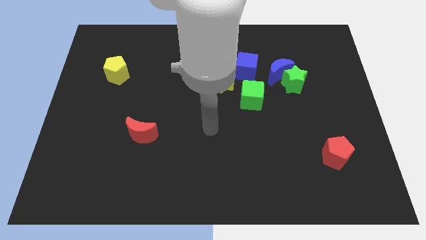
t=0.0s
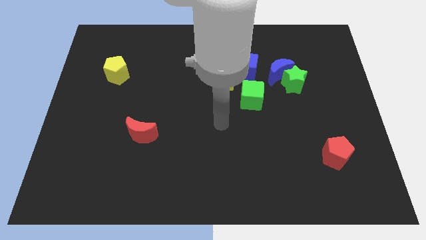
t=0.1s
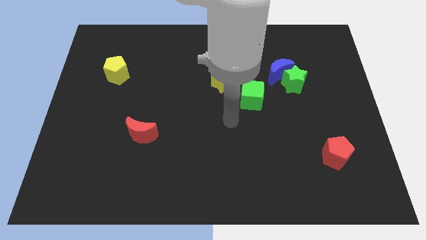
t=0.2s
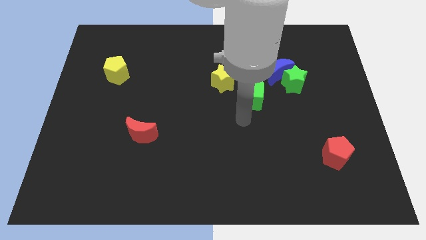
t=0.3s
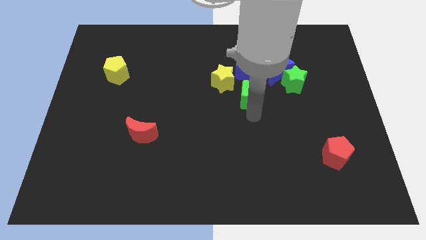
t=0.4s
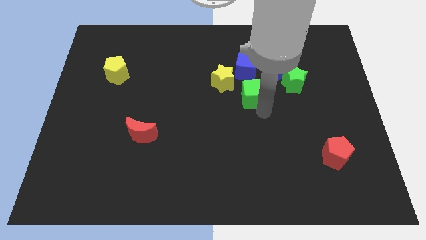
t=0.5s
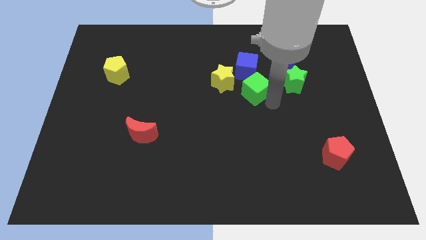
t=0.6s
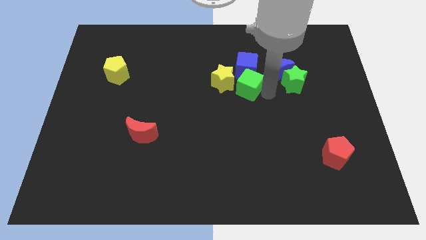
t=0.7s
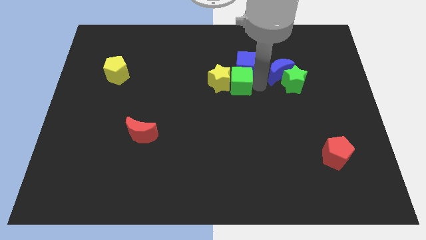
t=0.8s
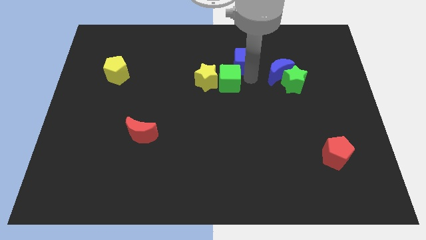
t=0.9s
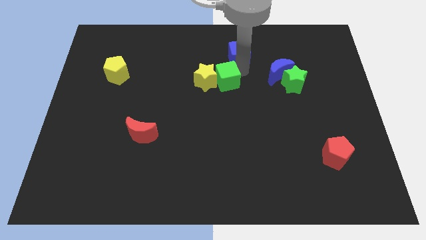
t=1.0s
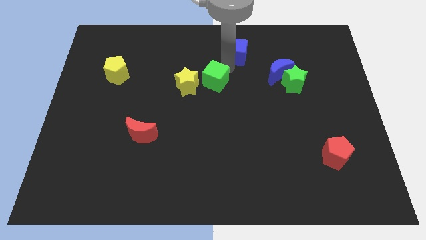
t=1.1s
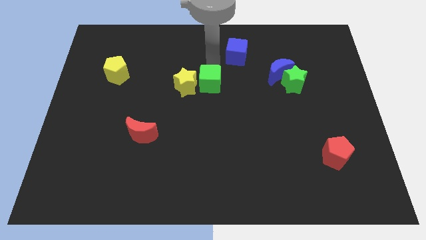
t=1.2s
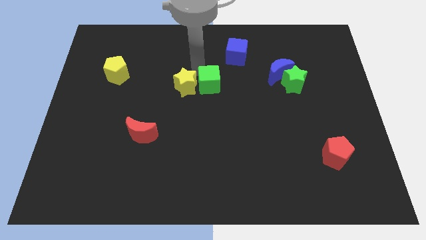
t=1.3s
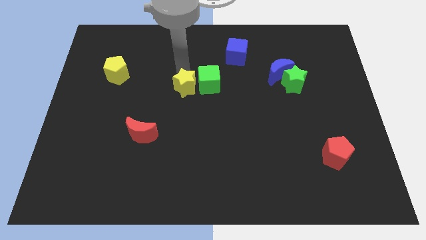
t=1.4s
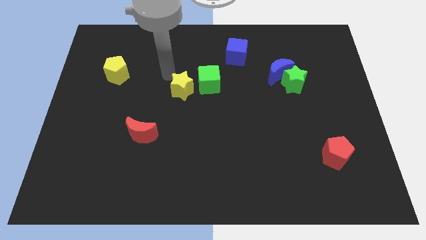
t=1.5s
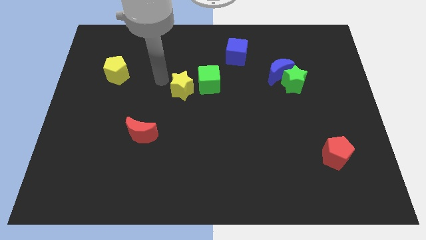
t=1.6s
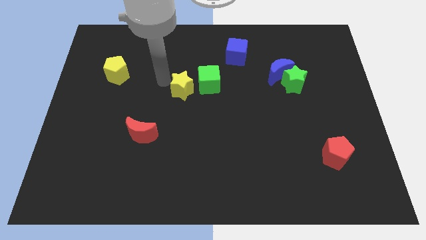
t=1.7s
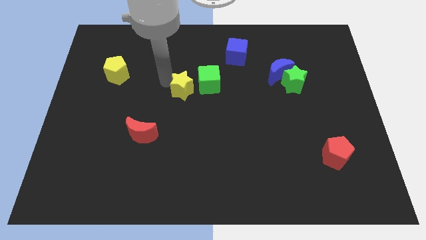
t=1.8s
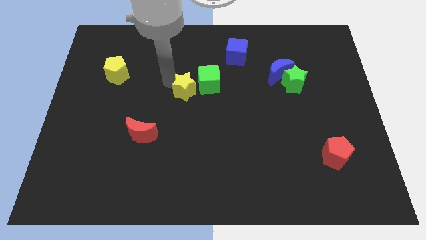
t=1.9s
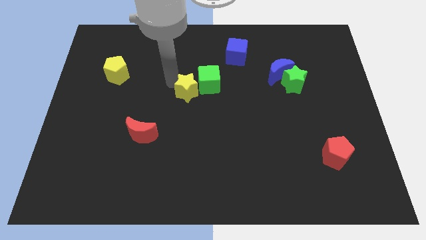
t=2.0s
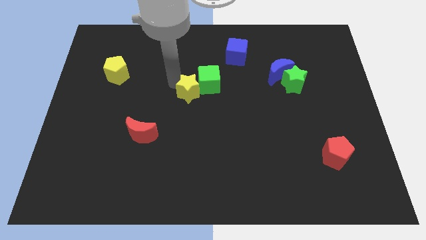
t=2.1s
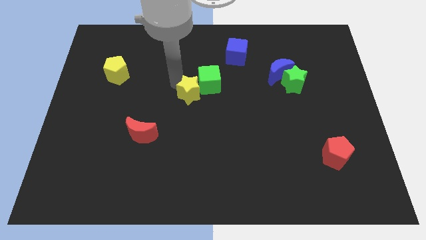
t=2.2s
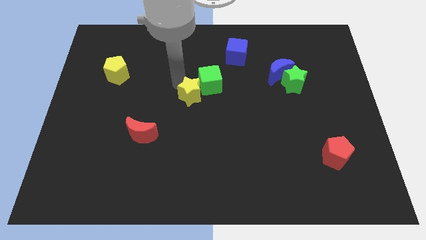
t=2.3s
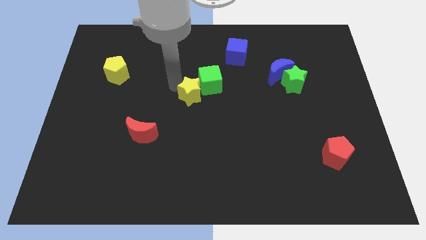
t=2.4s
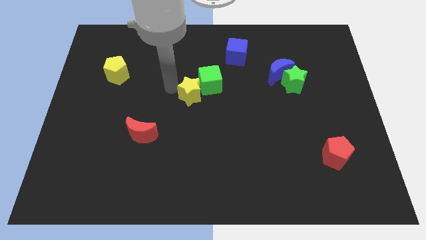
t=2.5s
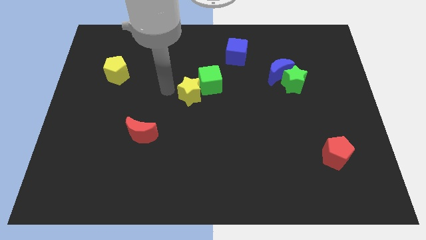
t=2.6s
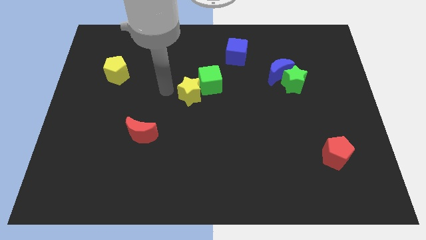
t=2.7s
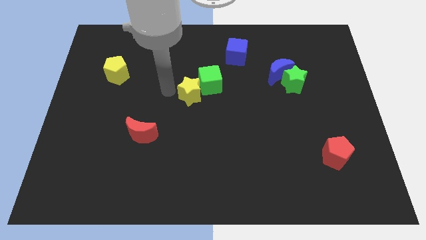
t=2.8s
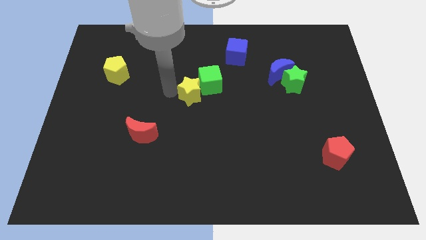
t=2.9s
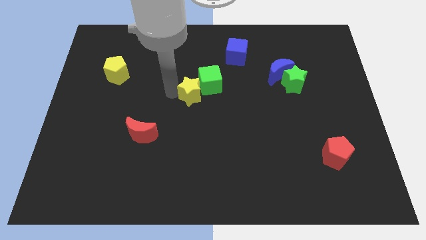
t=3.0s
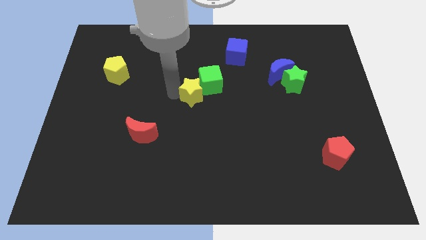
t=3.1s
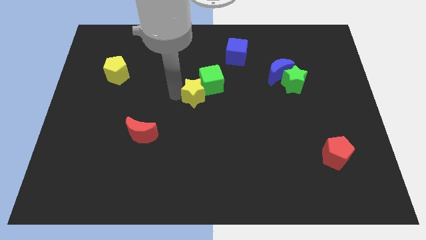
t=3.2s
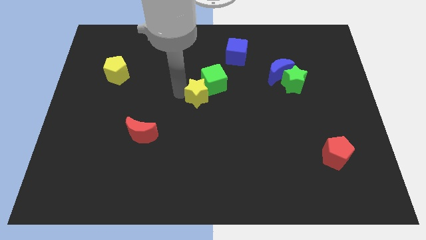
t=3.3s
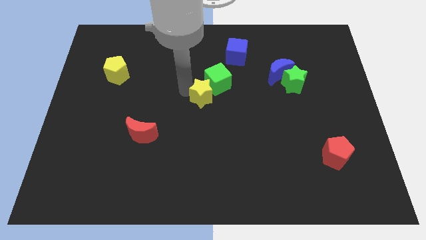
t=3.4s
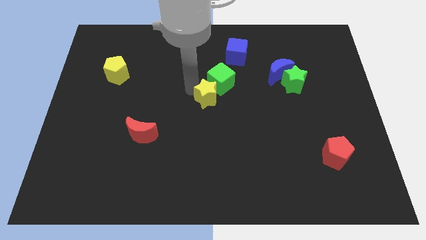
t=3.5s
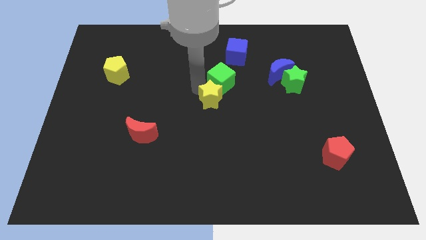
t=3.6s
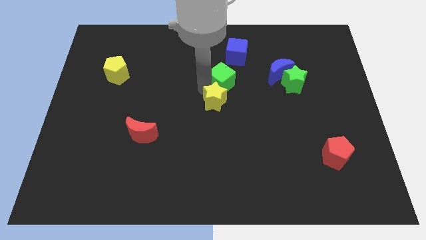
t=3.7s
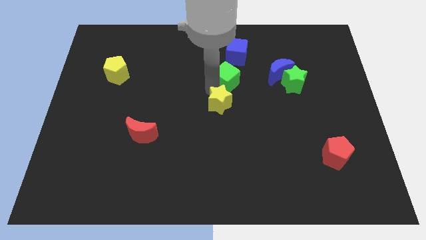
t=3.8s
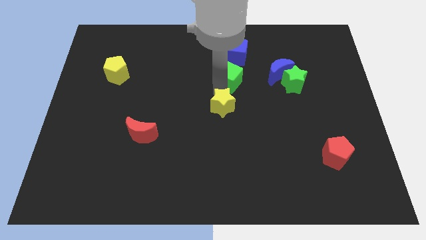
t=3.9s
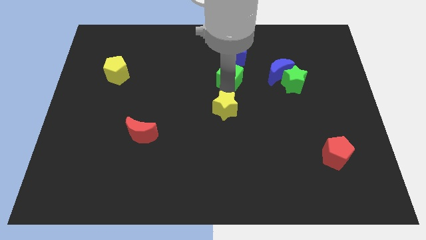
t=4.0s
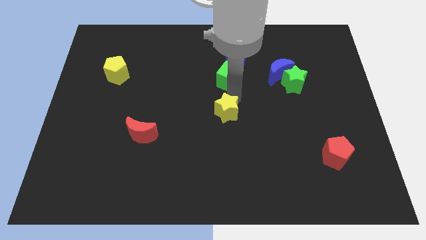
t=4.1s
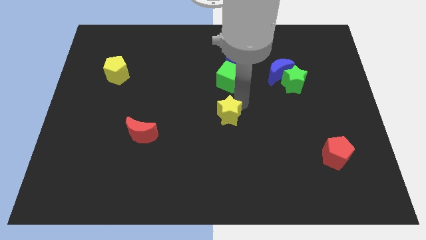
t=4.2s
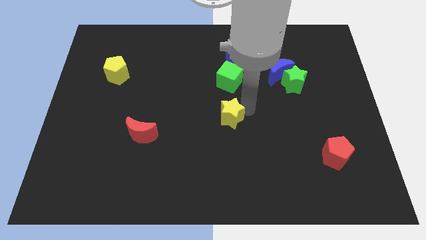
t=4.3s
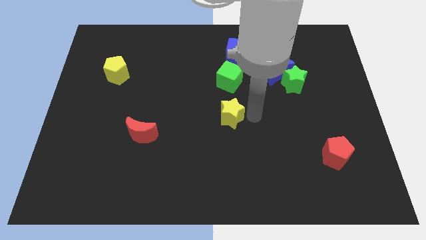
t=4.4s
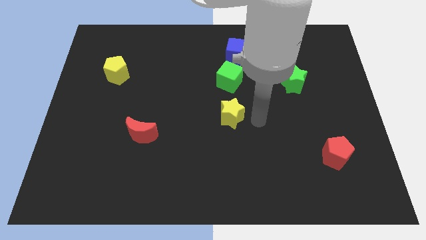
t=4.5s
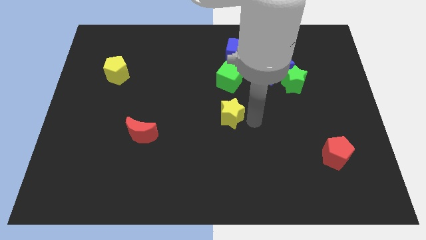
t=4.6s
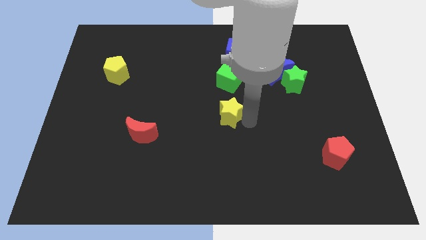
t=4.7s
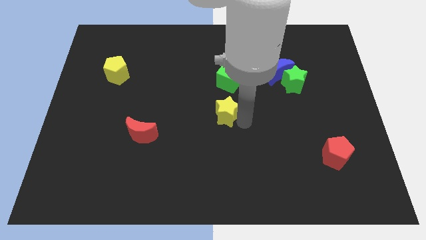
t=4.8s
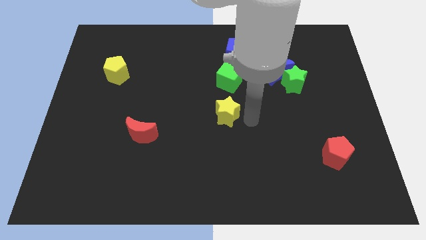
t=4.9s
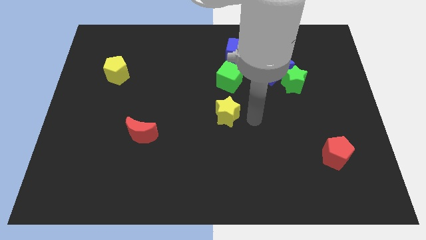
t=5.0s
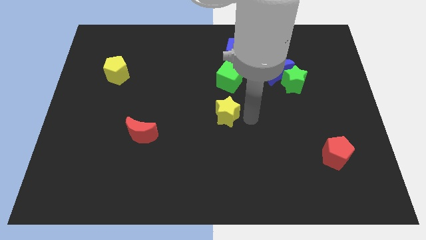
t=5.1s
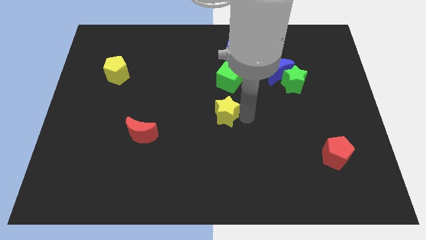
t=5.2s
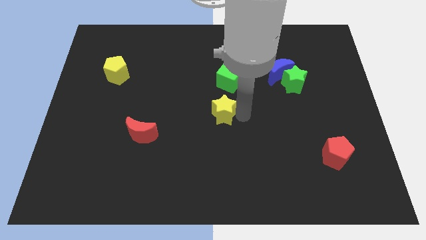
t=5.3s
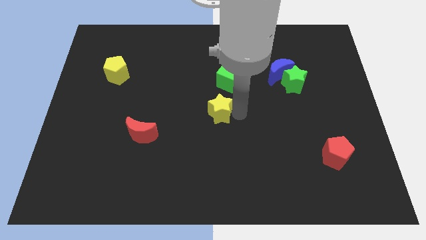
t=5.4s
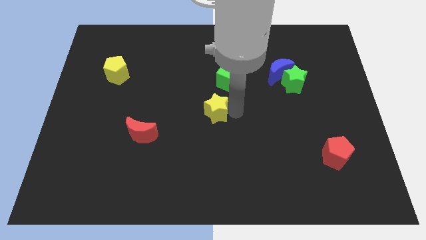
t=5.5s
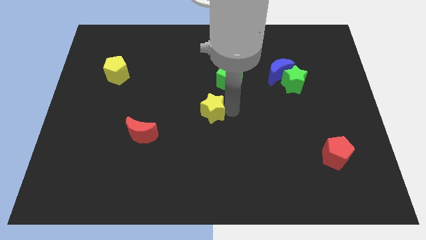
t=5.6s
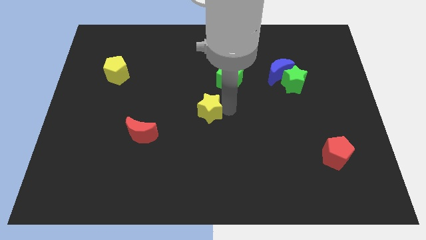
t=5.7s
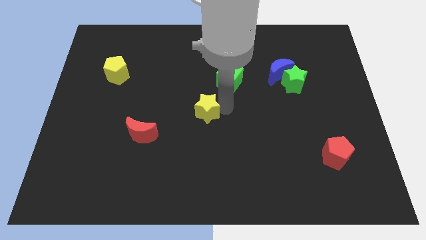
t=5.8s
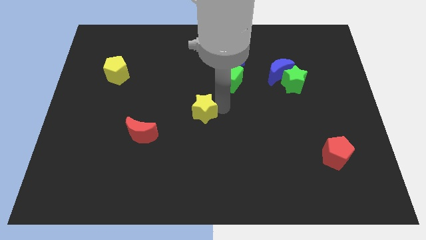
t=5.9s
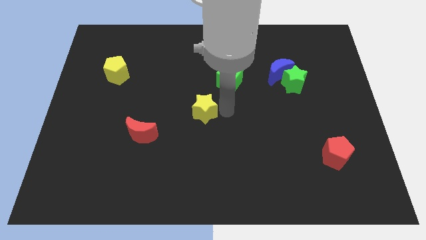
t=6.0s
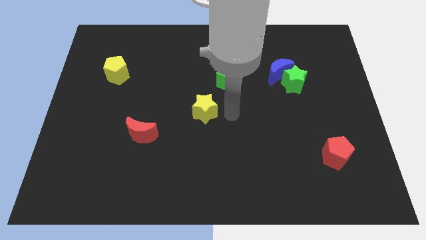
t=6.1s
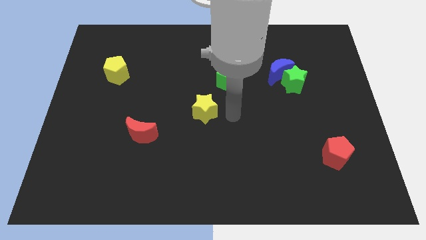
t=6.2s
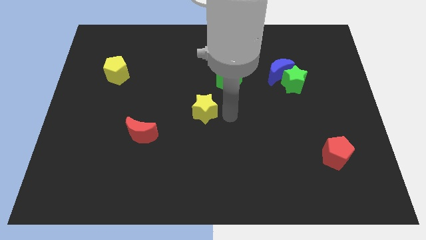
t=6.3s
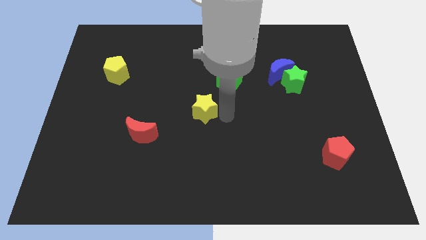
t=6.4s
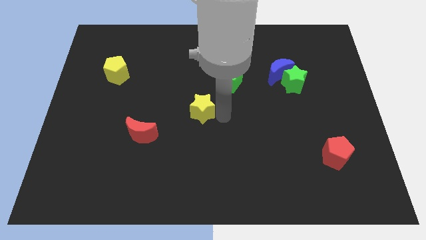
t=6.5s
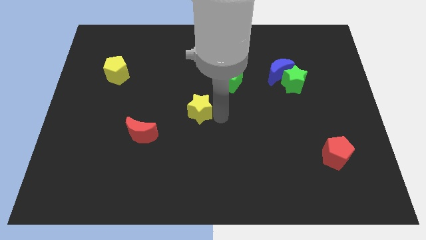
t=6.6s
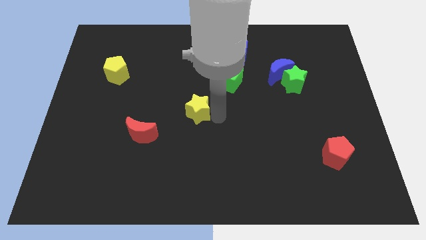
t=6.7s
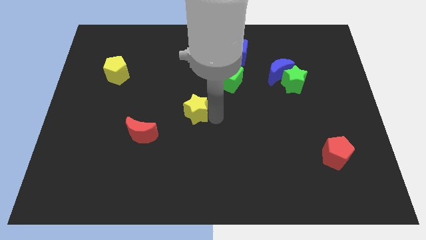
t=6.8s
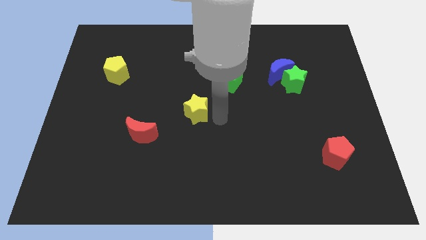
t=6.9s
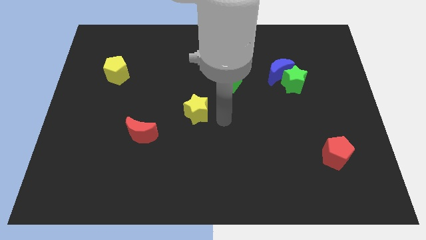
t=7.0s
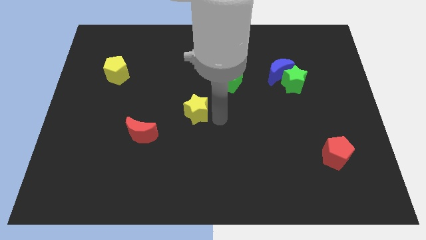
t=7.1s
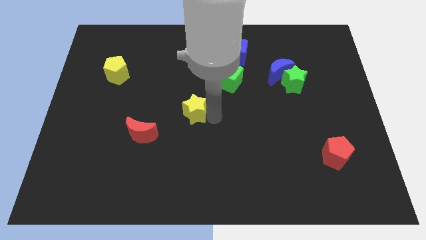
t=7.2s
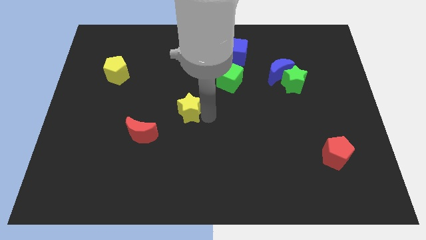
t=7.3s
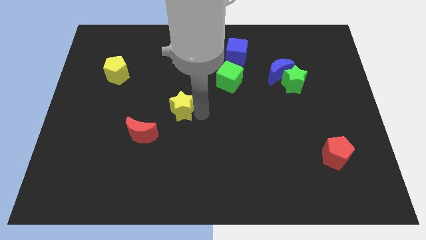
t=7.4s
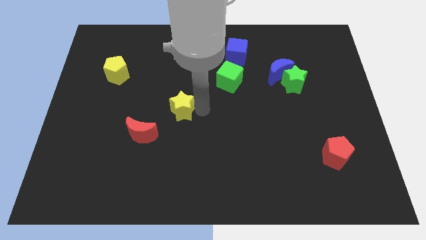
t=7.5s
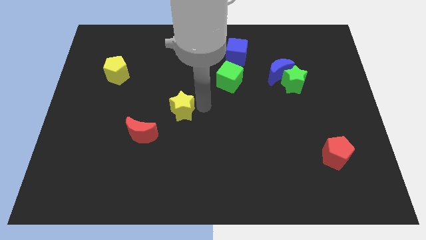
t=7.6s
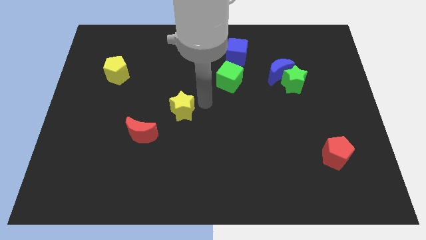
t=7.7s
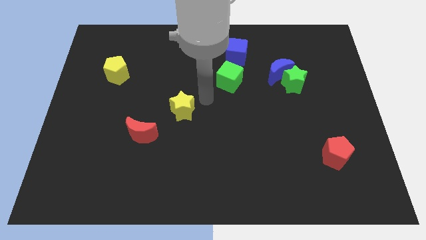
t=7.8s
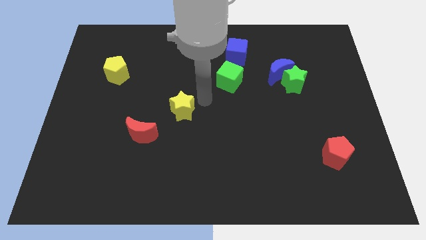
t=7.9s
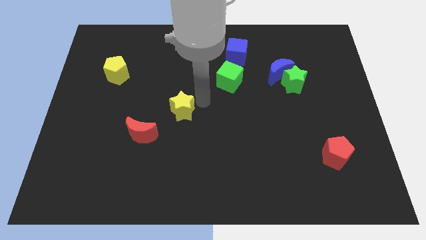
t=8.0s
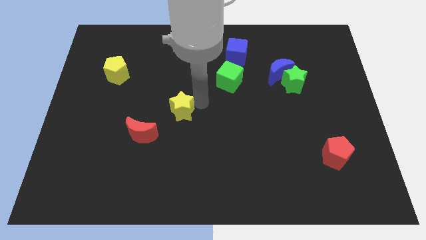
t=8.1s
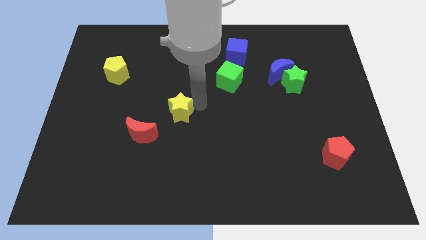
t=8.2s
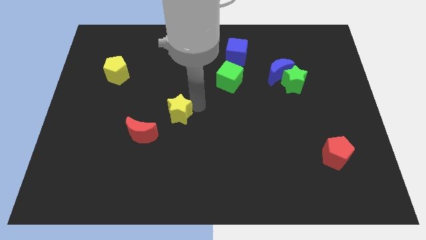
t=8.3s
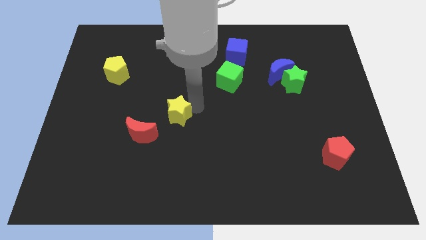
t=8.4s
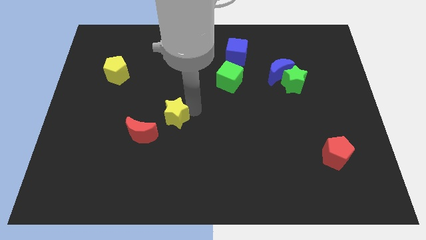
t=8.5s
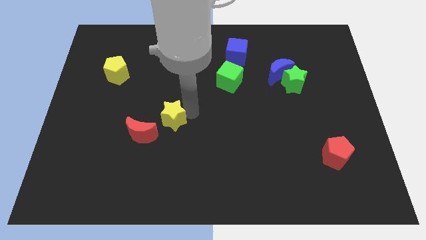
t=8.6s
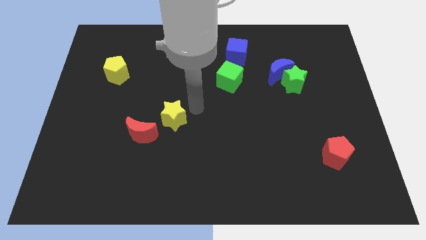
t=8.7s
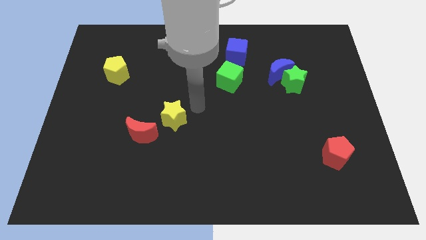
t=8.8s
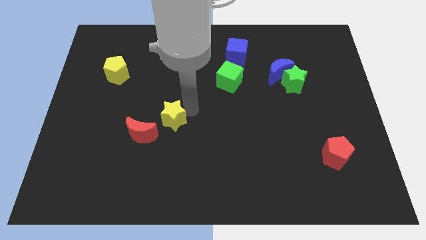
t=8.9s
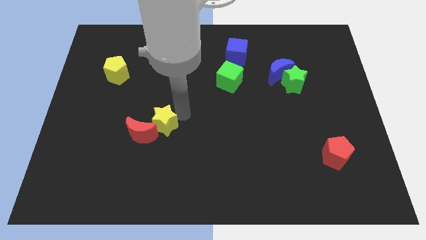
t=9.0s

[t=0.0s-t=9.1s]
push the yellow star to the red moon
